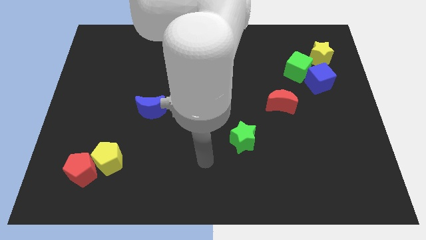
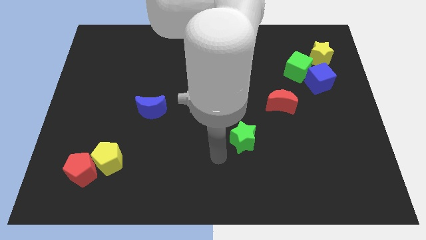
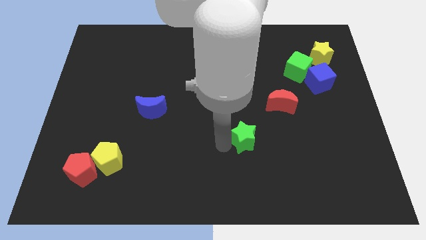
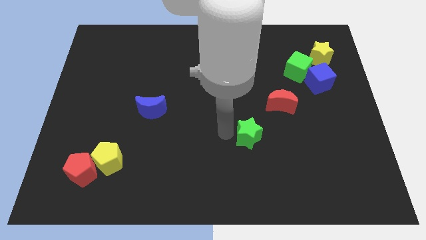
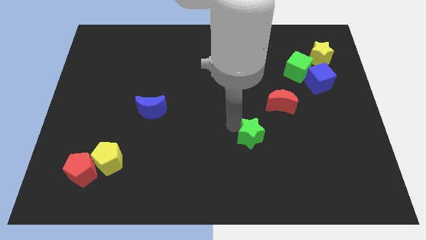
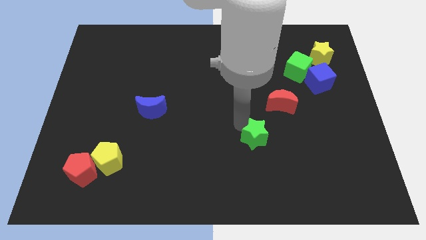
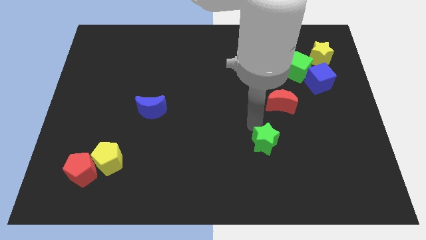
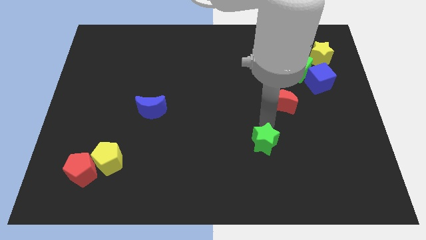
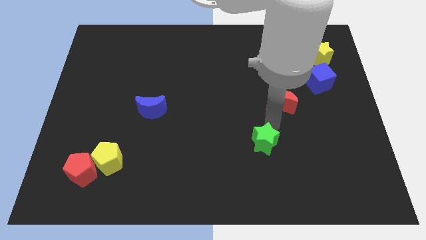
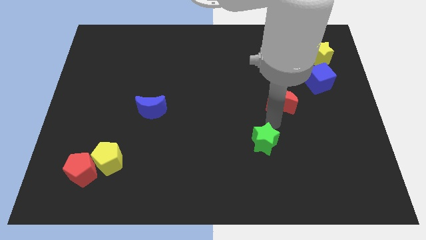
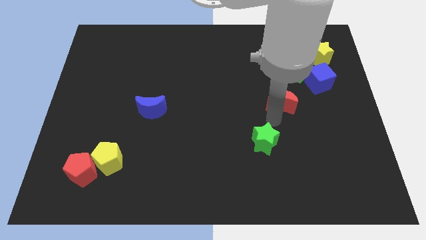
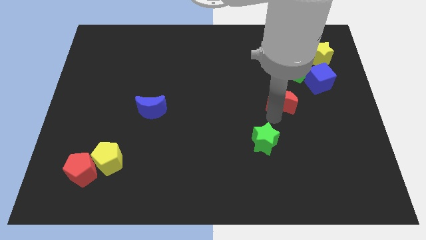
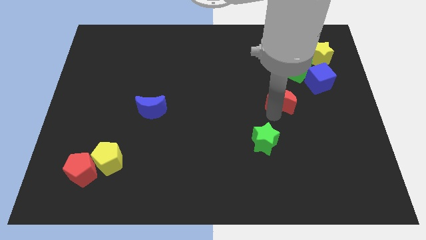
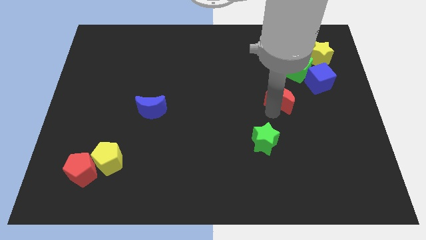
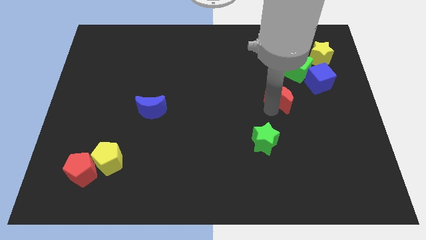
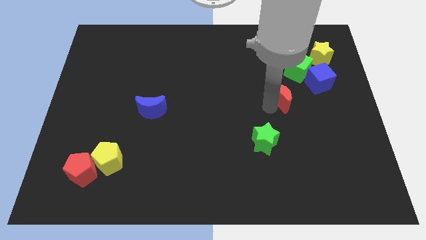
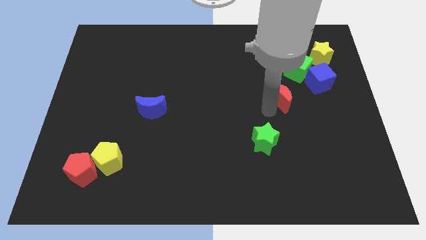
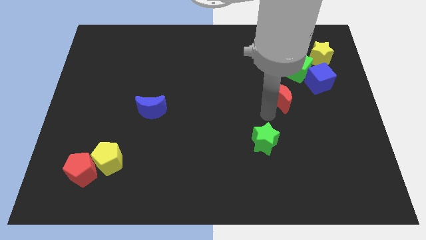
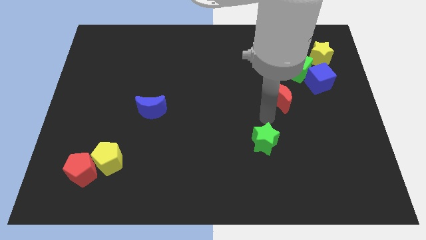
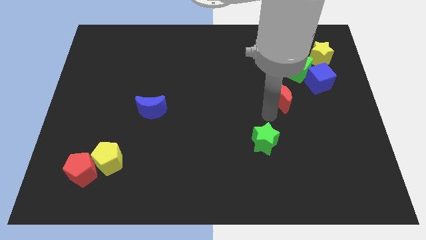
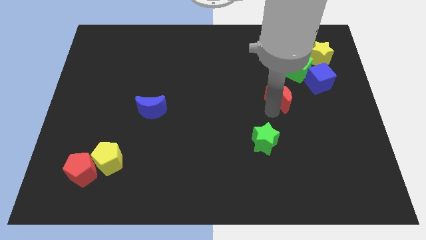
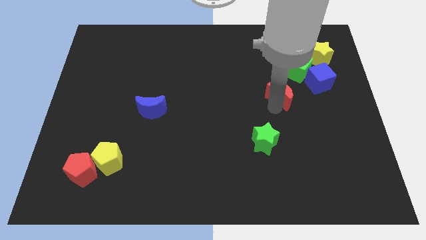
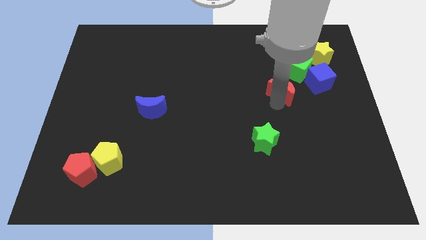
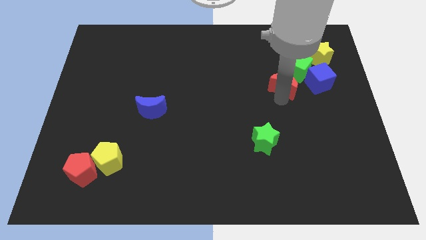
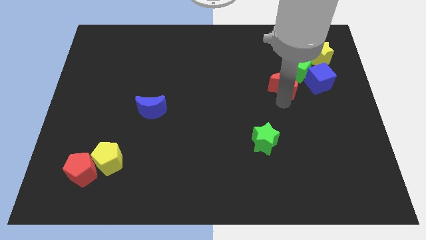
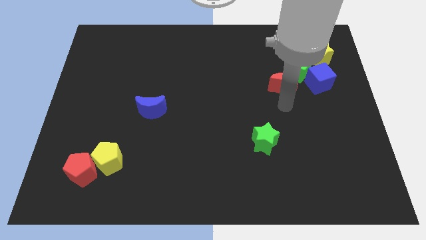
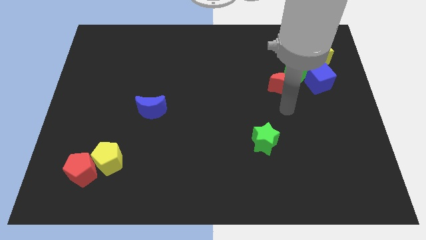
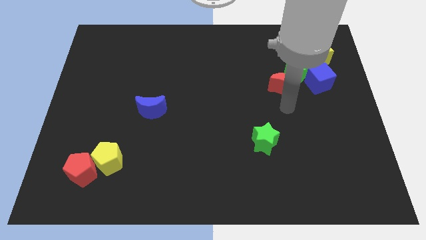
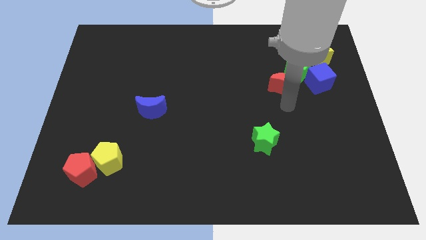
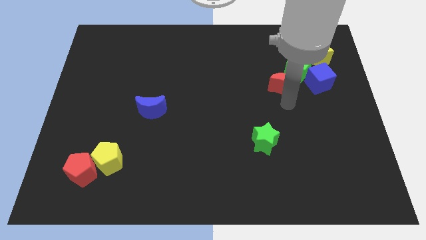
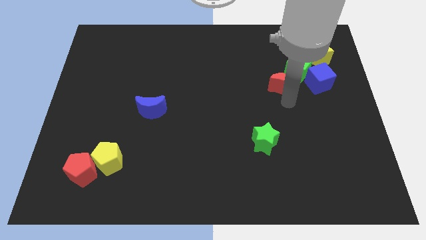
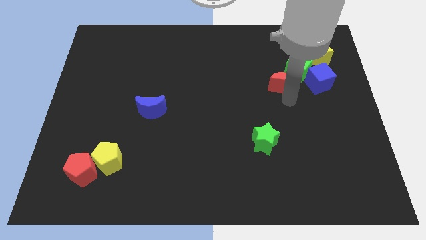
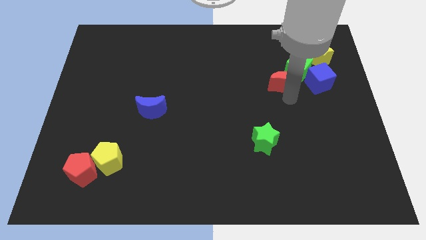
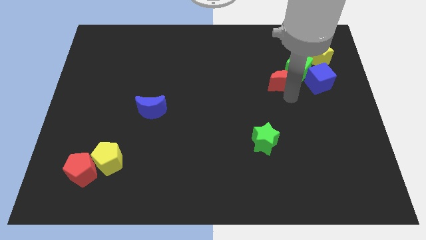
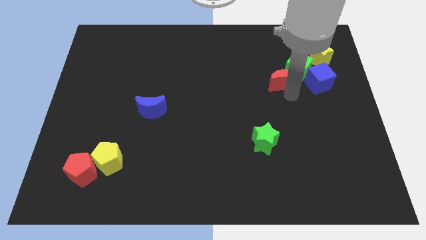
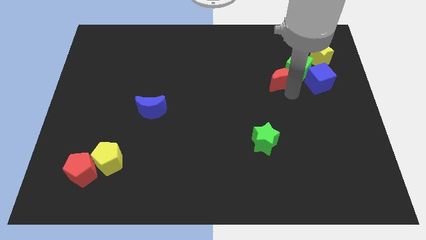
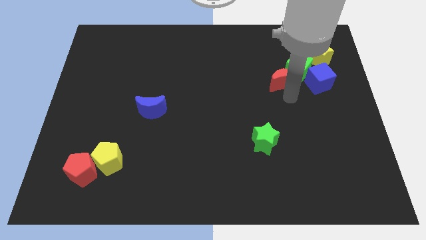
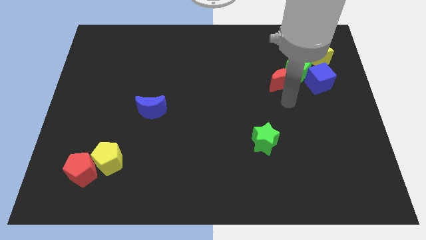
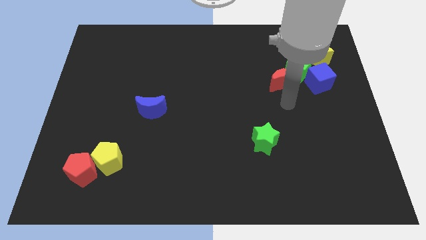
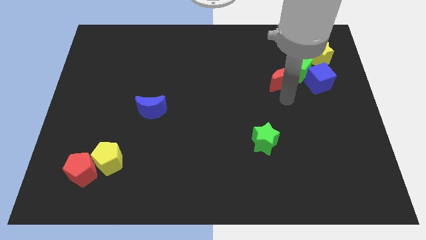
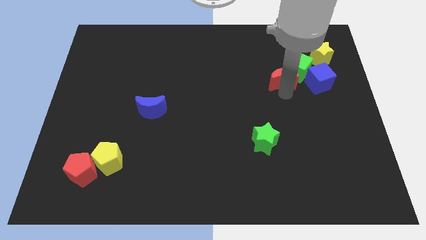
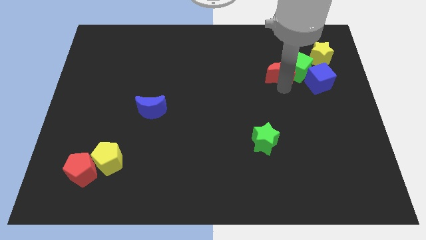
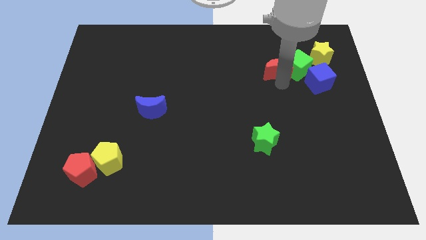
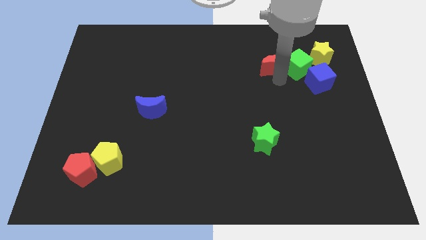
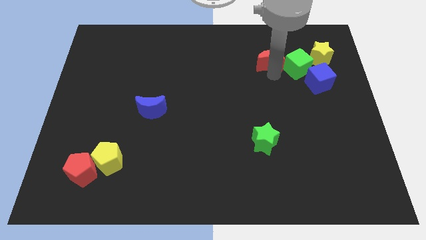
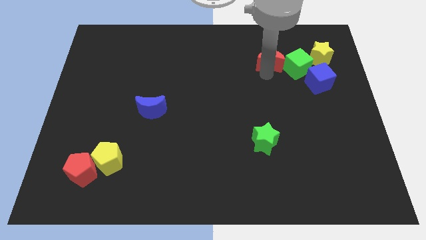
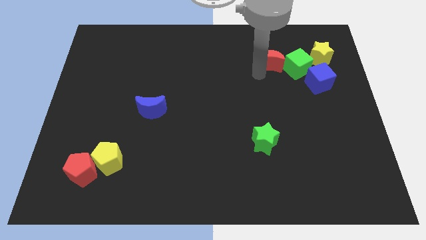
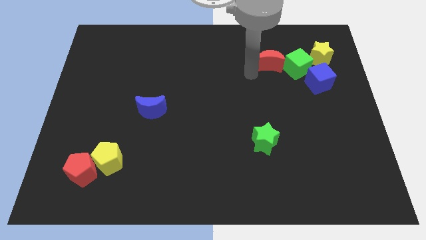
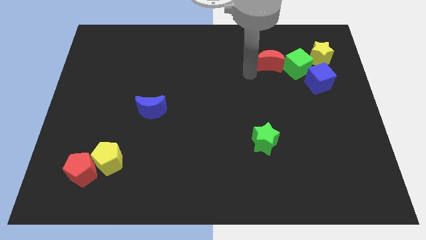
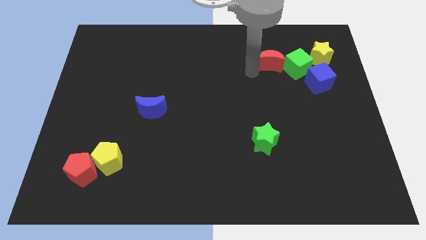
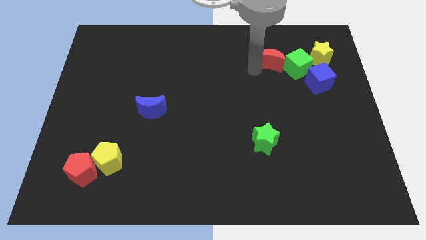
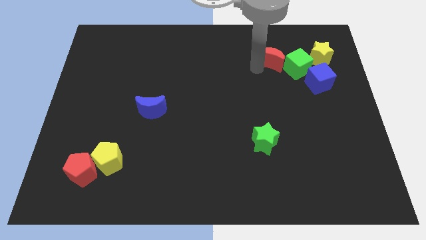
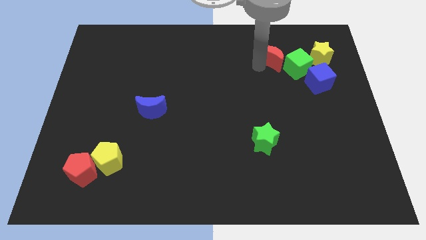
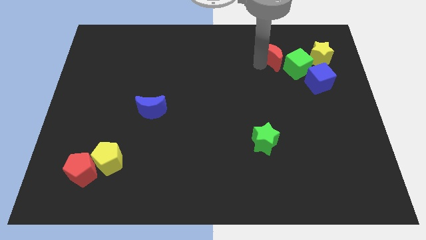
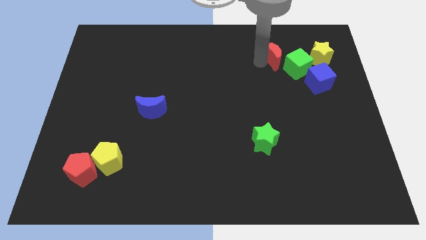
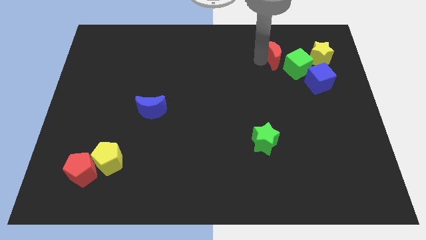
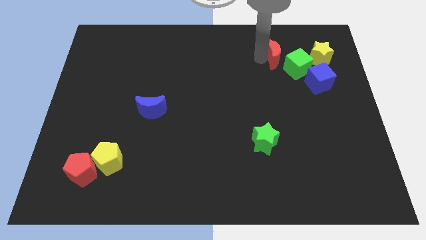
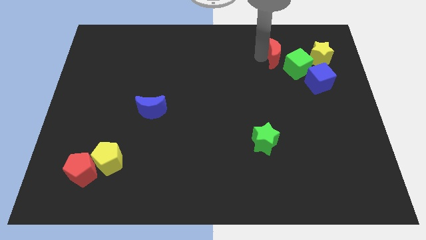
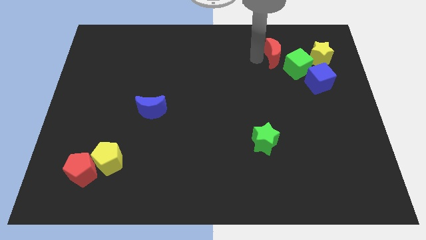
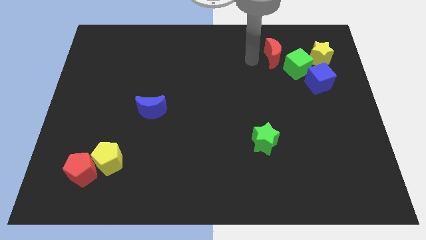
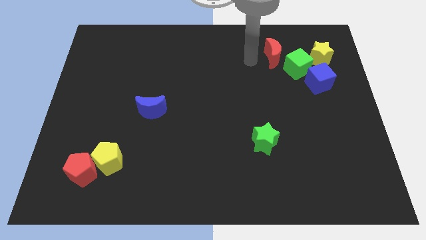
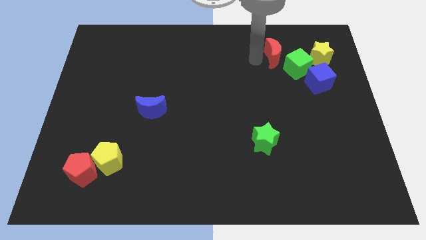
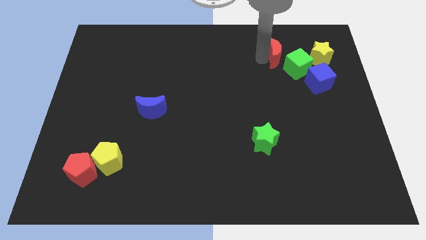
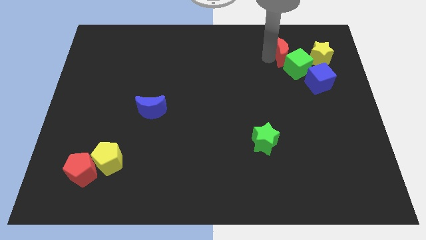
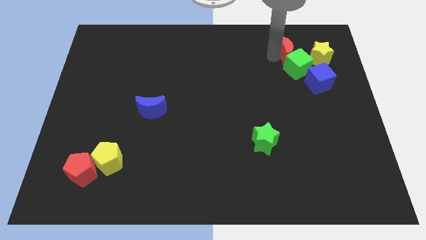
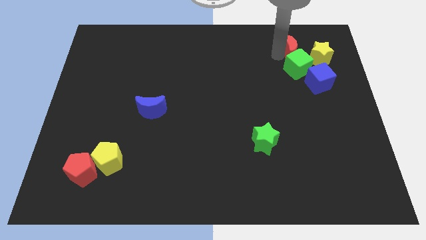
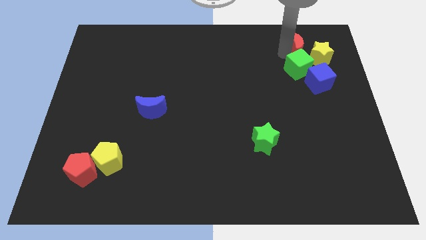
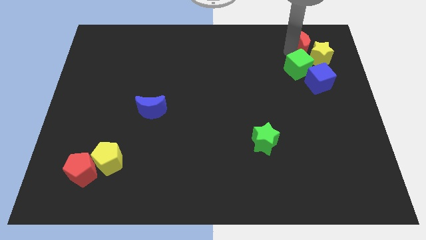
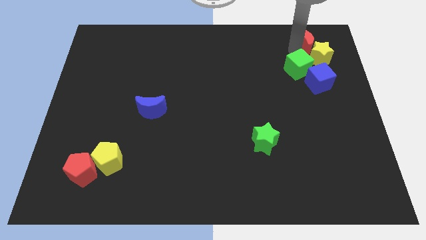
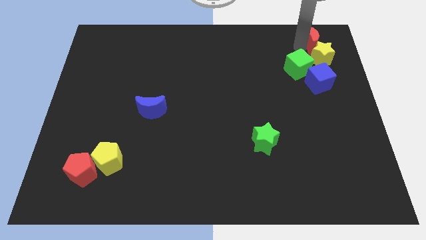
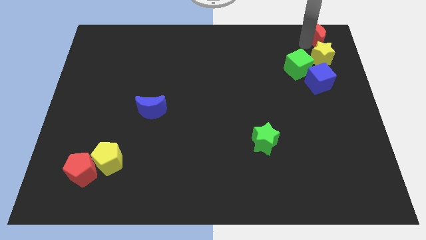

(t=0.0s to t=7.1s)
push the red moon to the top right corner
